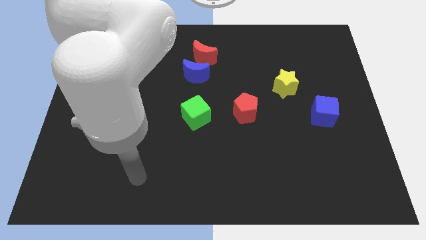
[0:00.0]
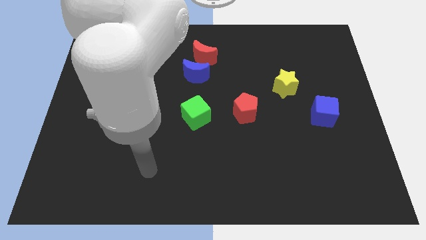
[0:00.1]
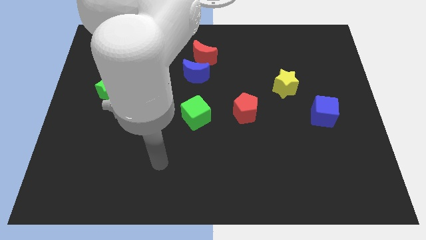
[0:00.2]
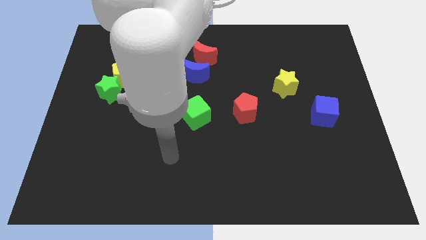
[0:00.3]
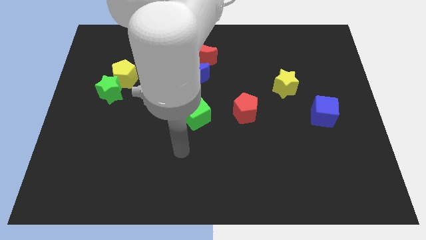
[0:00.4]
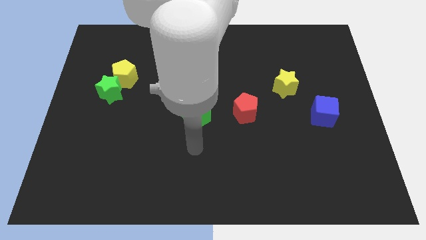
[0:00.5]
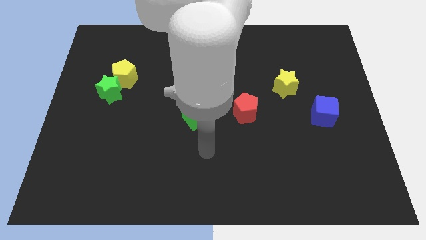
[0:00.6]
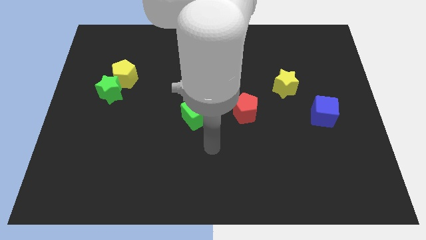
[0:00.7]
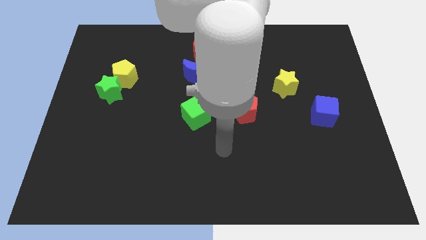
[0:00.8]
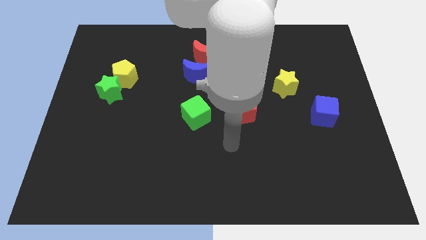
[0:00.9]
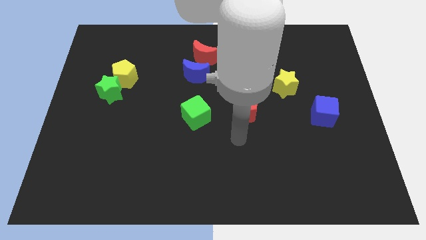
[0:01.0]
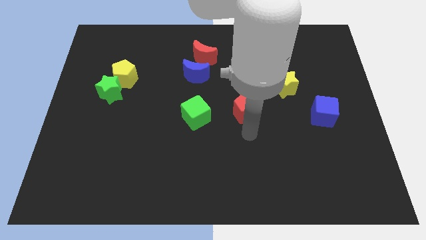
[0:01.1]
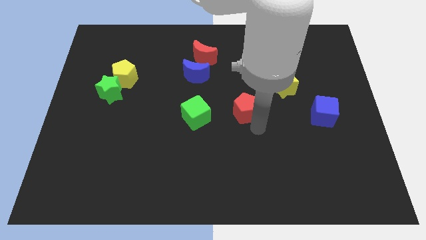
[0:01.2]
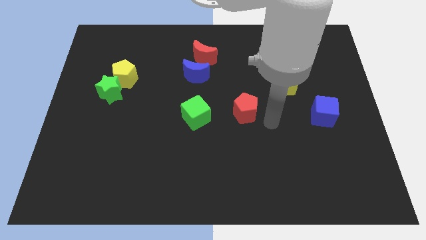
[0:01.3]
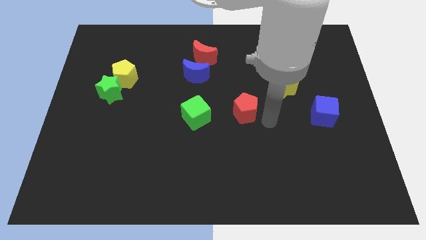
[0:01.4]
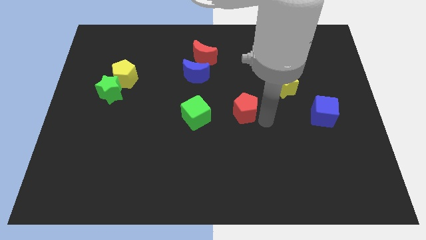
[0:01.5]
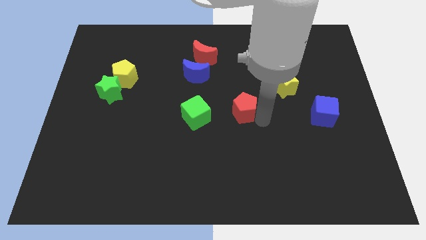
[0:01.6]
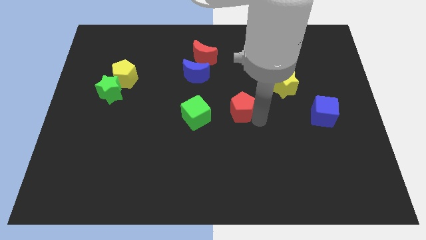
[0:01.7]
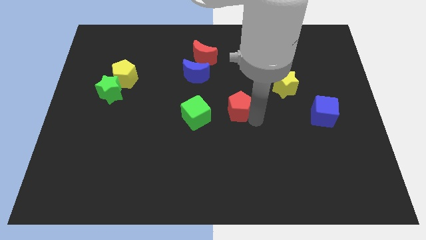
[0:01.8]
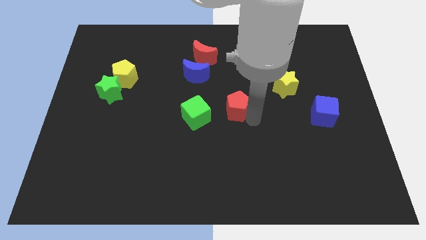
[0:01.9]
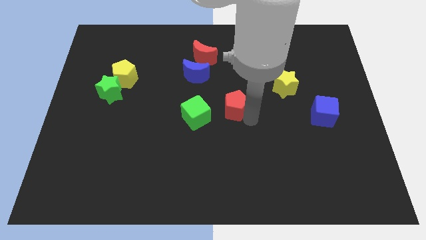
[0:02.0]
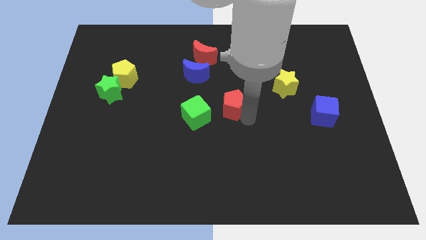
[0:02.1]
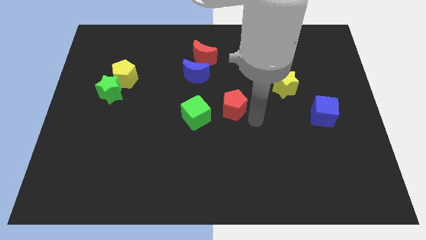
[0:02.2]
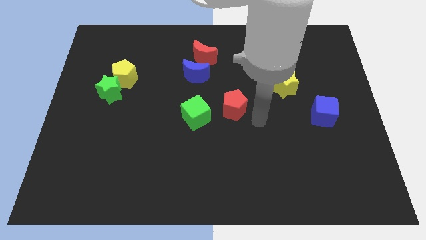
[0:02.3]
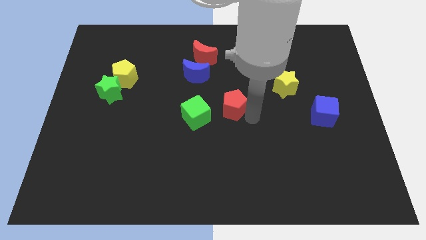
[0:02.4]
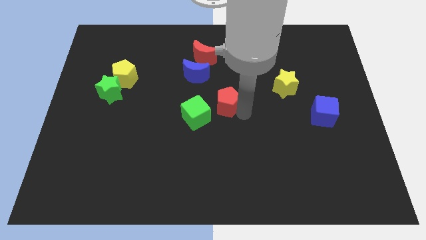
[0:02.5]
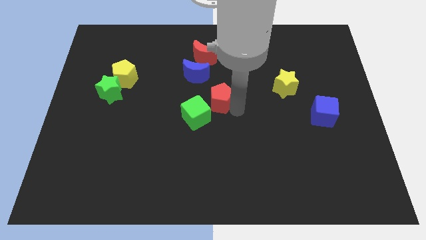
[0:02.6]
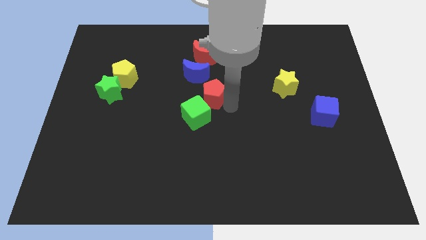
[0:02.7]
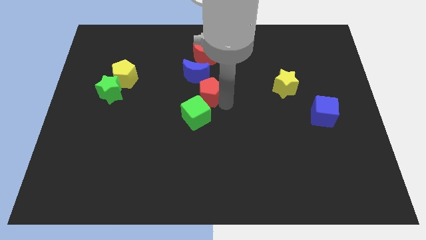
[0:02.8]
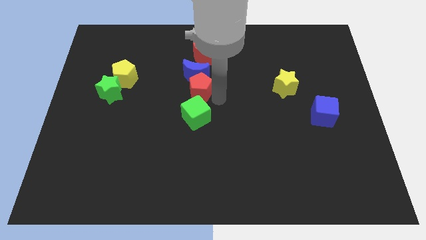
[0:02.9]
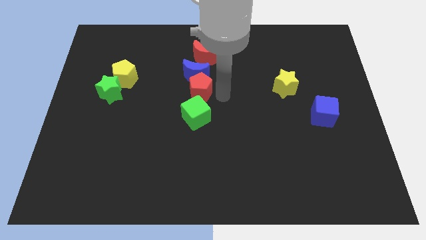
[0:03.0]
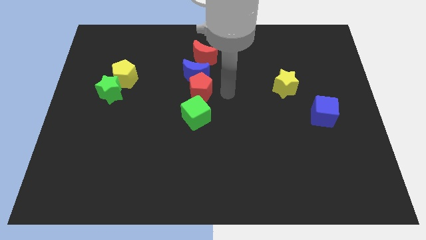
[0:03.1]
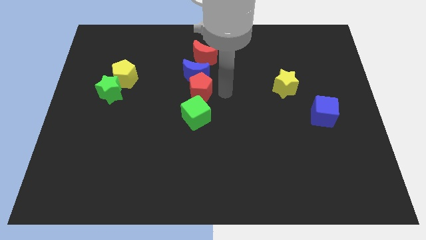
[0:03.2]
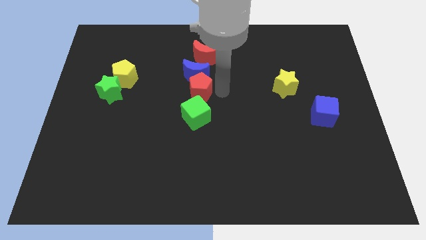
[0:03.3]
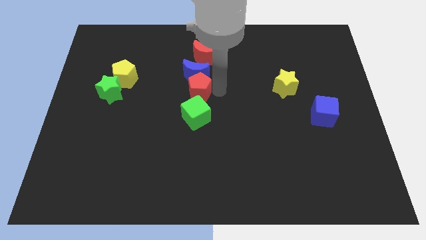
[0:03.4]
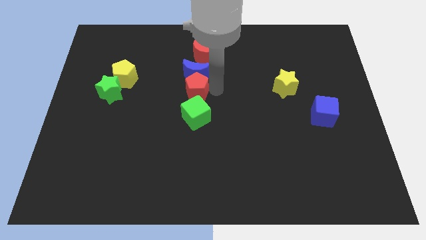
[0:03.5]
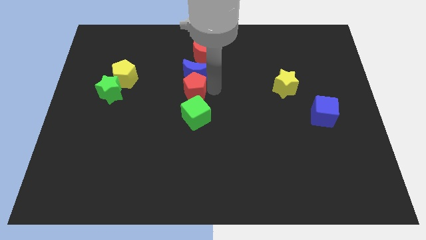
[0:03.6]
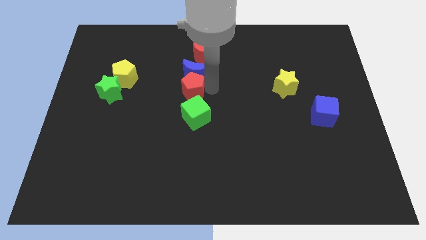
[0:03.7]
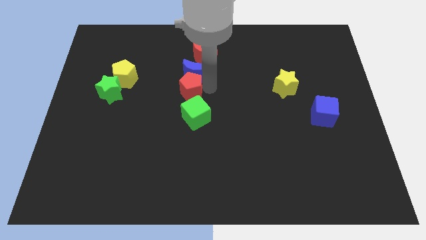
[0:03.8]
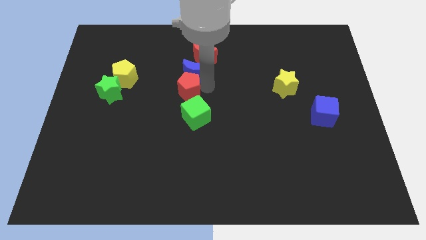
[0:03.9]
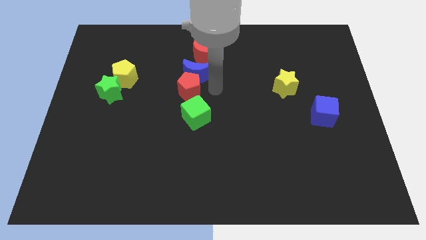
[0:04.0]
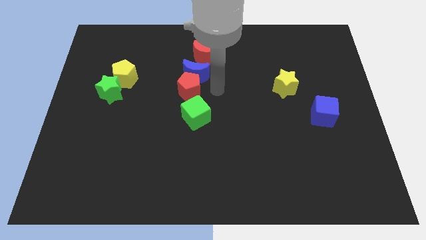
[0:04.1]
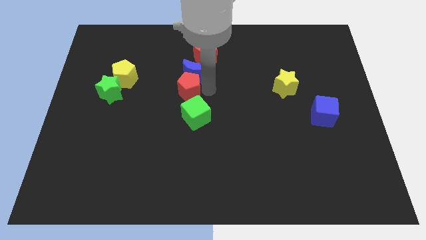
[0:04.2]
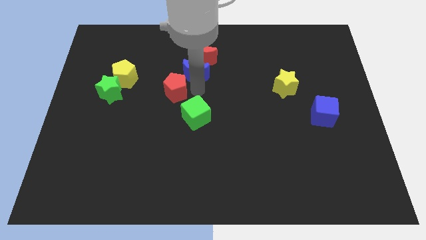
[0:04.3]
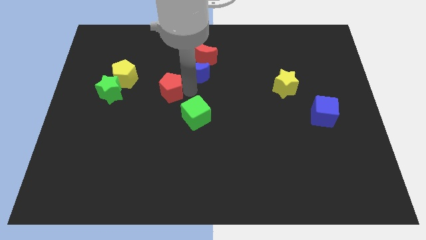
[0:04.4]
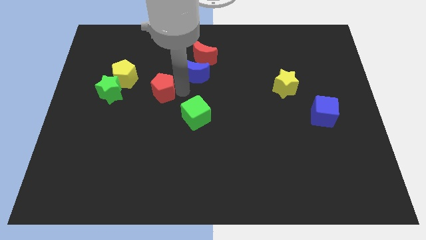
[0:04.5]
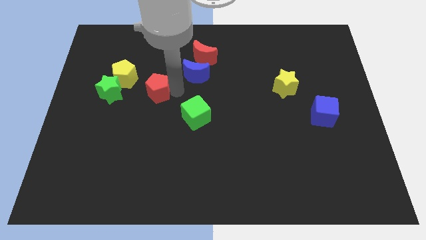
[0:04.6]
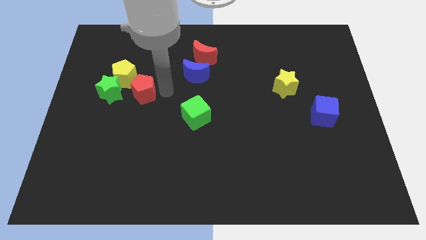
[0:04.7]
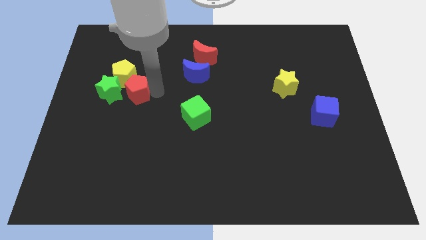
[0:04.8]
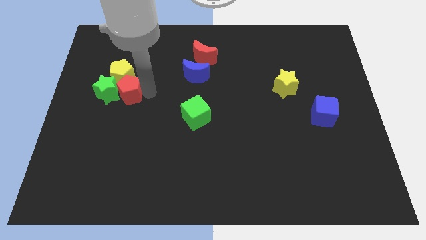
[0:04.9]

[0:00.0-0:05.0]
move the red pentagon next to the green star

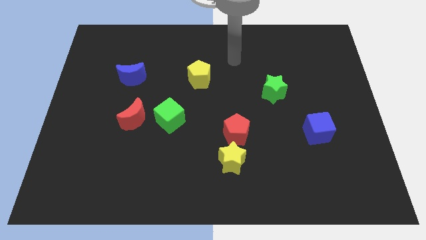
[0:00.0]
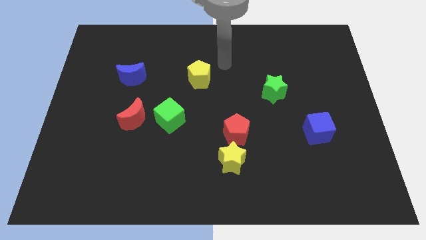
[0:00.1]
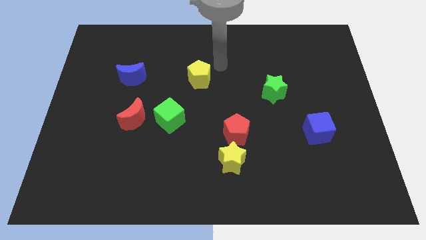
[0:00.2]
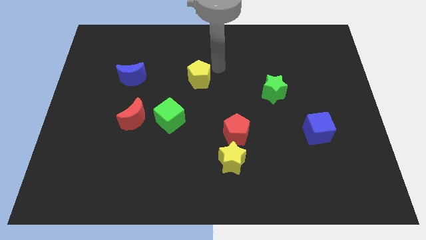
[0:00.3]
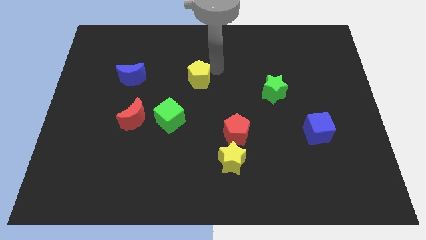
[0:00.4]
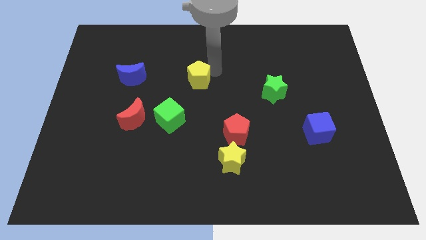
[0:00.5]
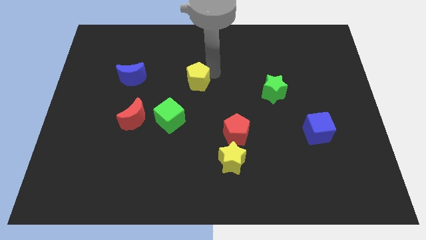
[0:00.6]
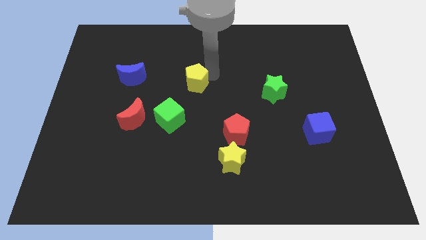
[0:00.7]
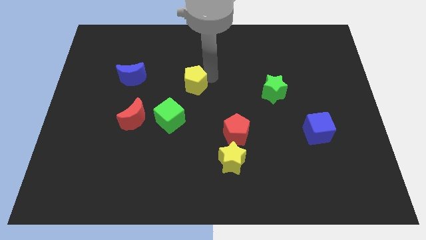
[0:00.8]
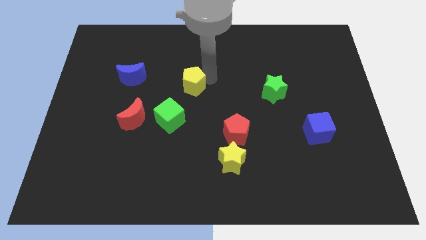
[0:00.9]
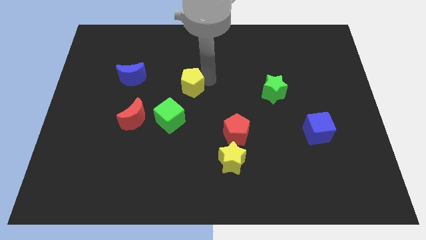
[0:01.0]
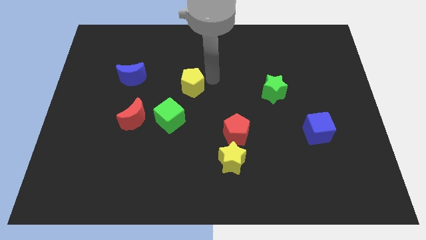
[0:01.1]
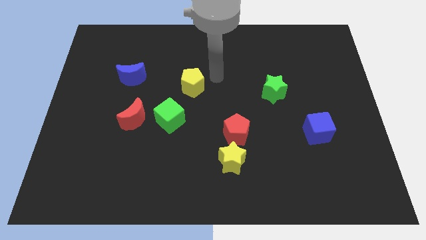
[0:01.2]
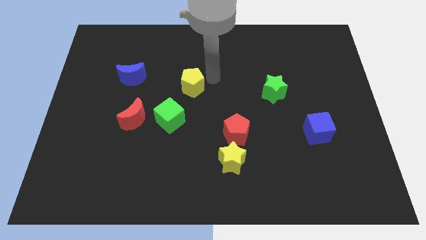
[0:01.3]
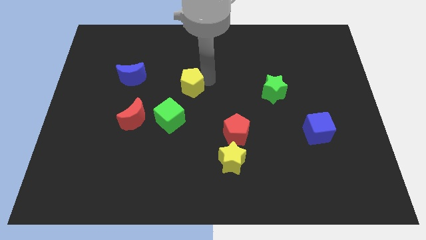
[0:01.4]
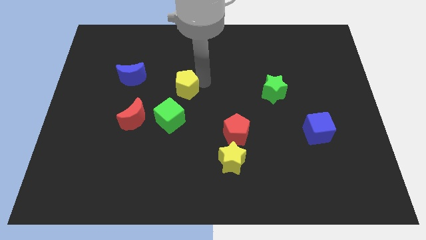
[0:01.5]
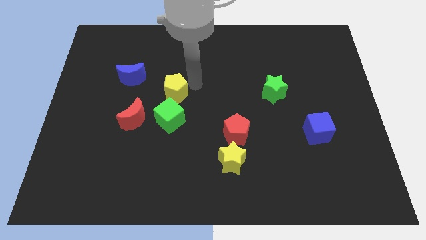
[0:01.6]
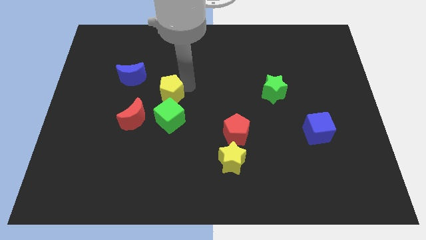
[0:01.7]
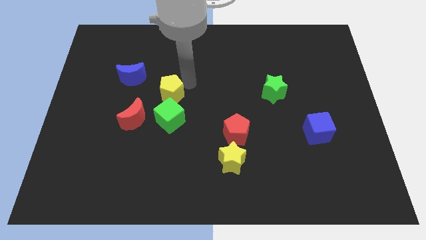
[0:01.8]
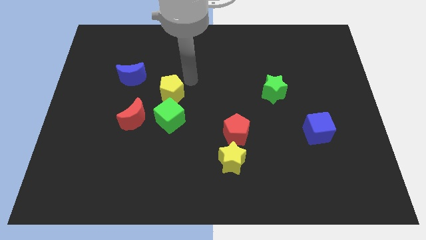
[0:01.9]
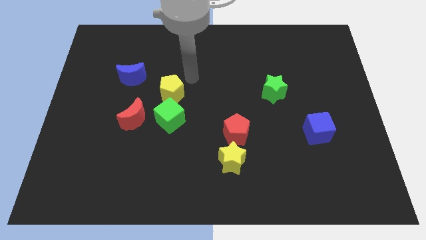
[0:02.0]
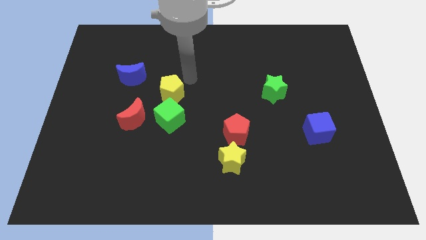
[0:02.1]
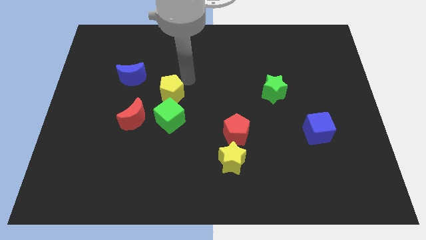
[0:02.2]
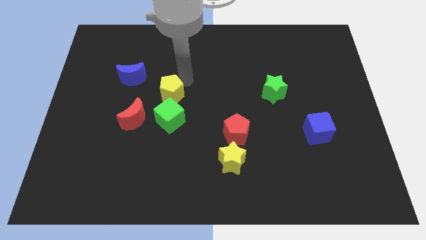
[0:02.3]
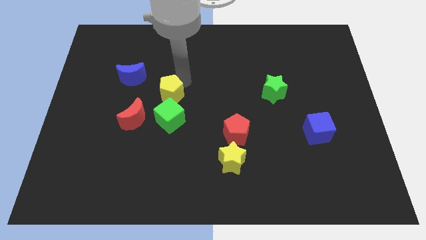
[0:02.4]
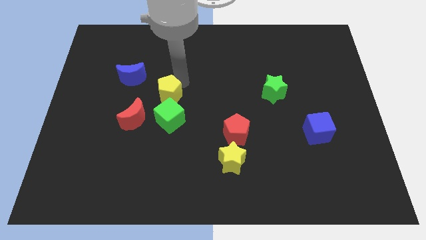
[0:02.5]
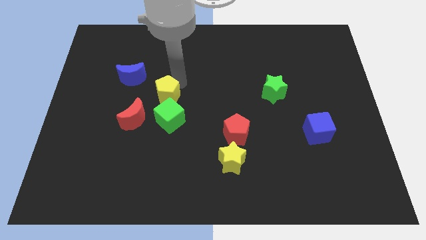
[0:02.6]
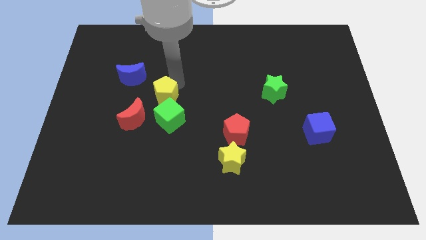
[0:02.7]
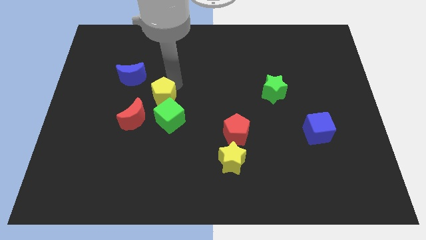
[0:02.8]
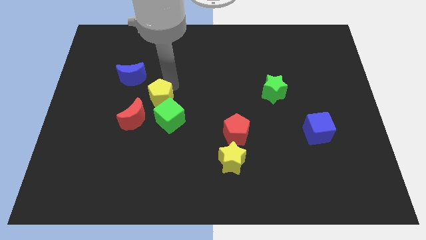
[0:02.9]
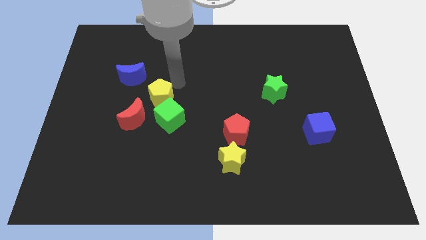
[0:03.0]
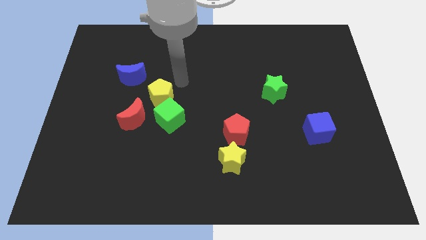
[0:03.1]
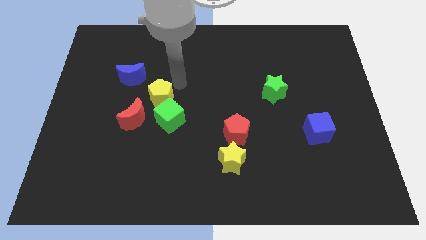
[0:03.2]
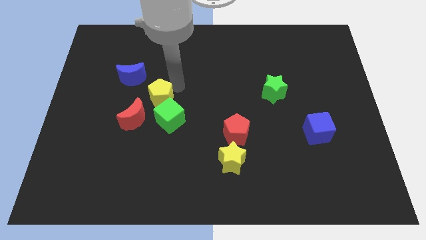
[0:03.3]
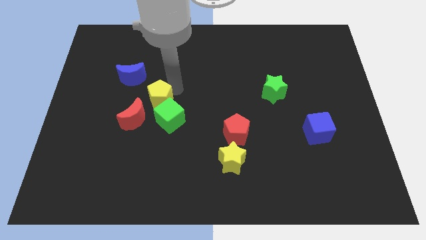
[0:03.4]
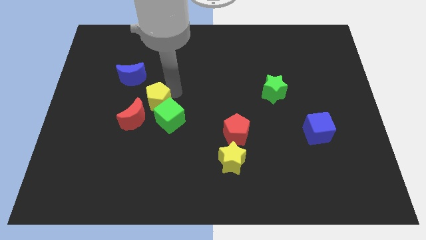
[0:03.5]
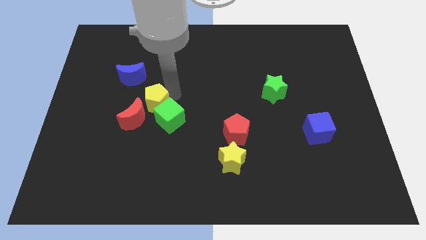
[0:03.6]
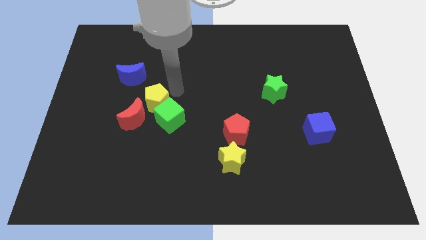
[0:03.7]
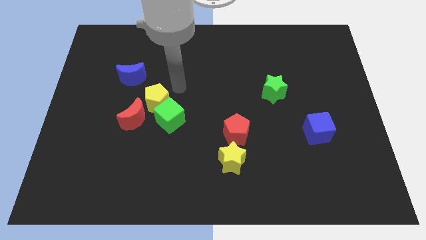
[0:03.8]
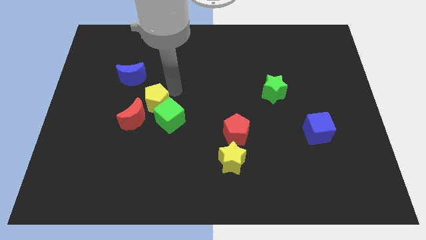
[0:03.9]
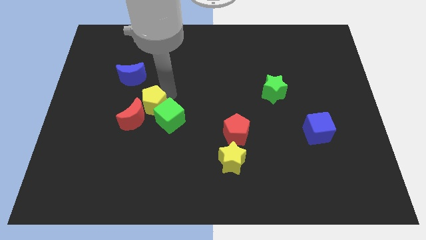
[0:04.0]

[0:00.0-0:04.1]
slide the yellow pentagon to the red moon
